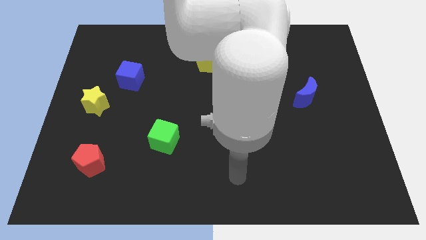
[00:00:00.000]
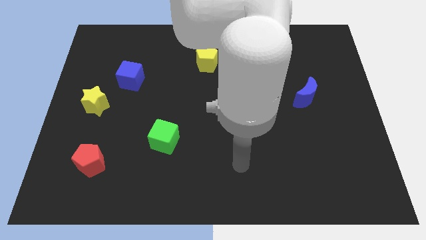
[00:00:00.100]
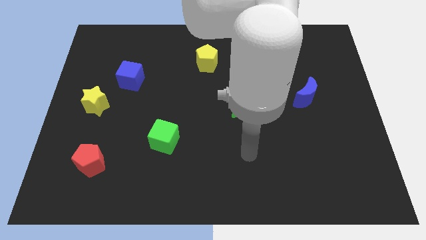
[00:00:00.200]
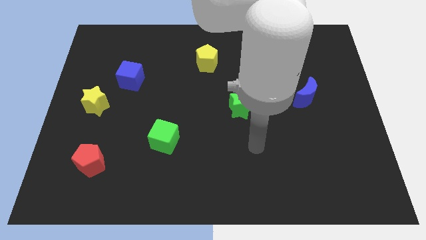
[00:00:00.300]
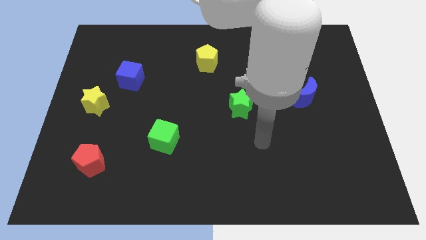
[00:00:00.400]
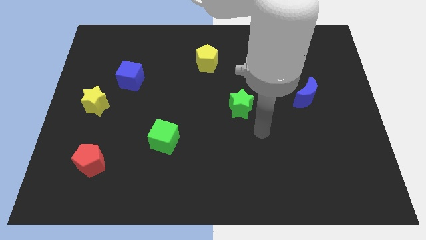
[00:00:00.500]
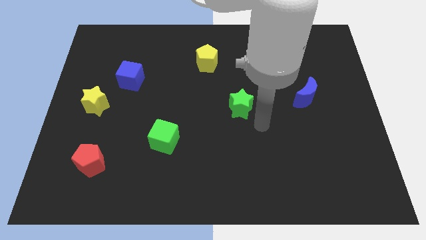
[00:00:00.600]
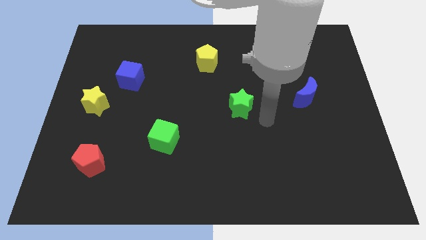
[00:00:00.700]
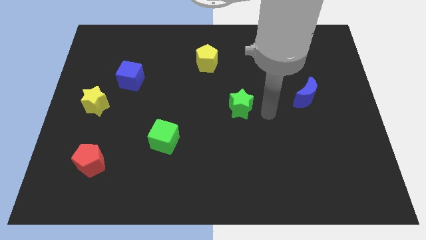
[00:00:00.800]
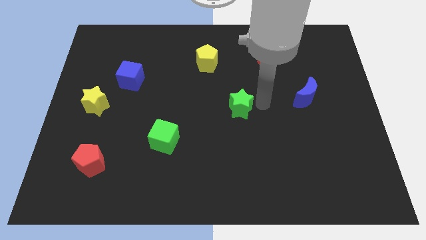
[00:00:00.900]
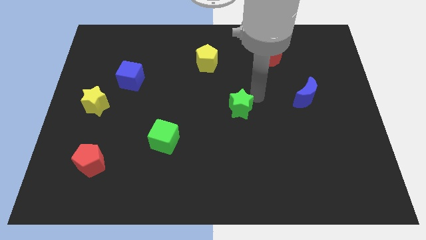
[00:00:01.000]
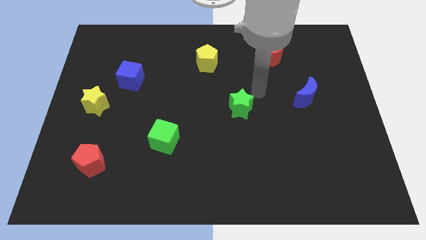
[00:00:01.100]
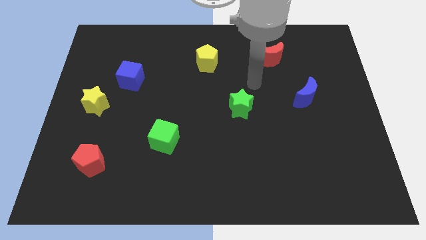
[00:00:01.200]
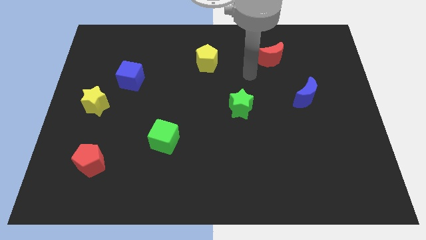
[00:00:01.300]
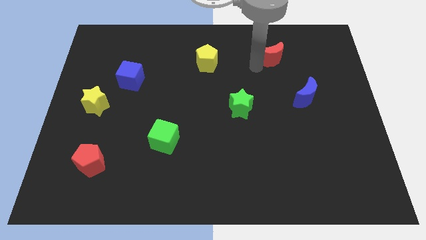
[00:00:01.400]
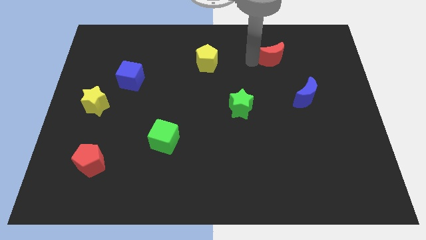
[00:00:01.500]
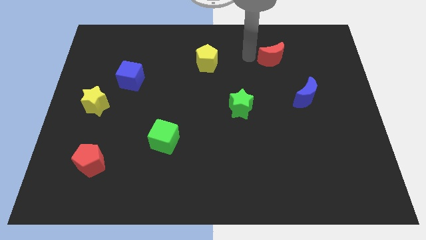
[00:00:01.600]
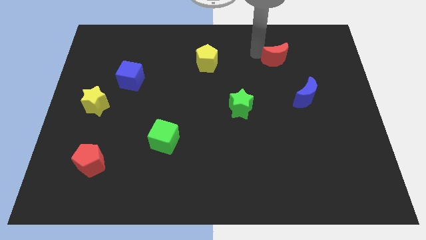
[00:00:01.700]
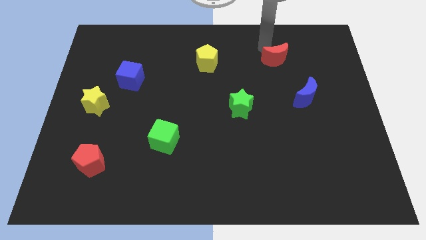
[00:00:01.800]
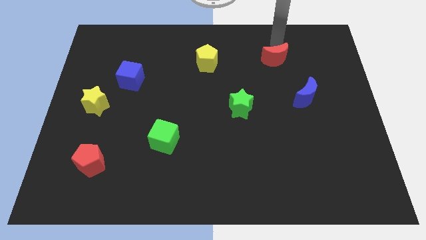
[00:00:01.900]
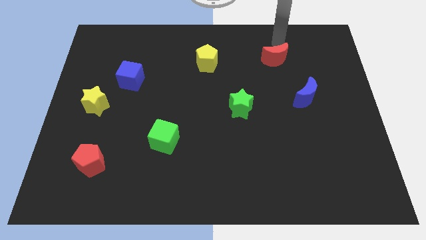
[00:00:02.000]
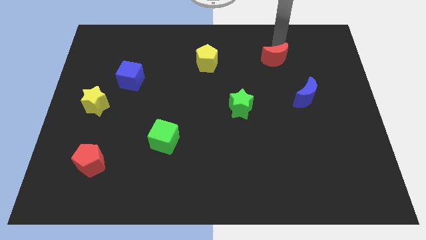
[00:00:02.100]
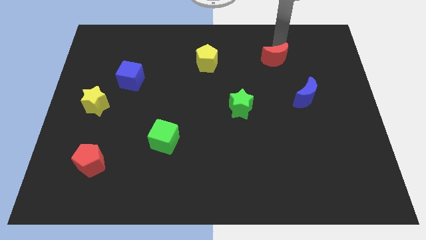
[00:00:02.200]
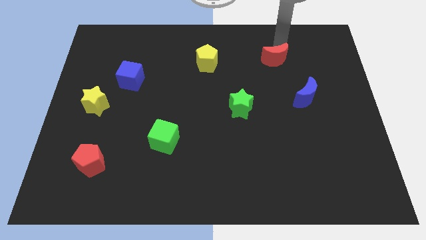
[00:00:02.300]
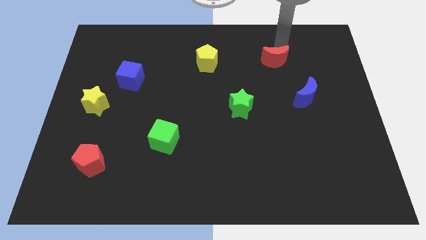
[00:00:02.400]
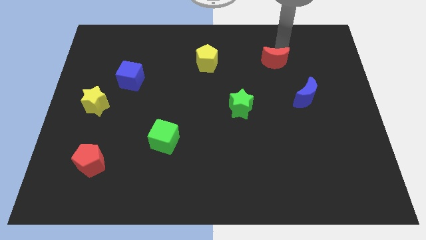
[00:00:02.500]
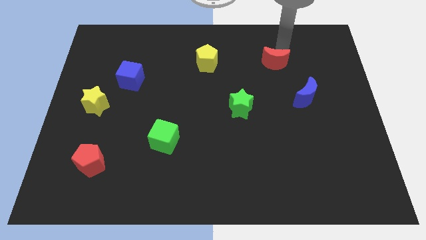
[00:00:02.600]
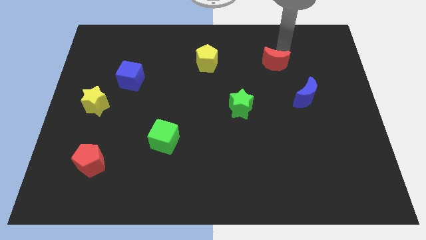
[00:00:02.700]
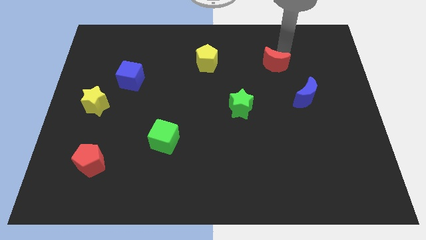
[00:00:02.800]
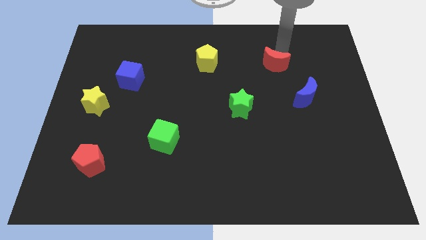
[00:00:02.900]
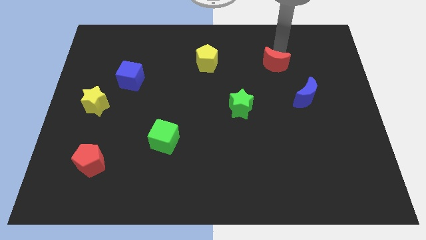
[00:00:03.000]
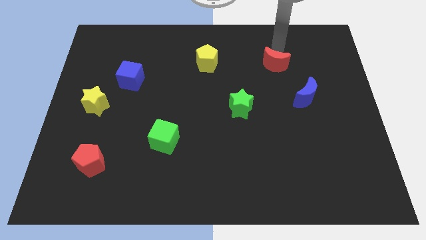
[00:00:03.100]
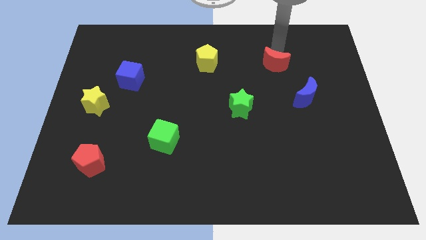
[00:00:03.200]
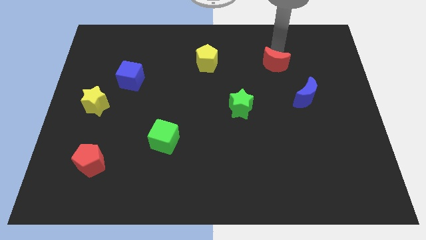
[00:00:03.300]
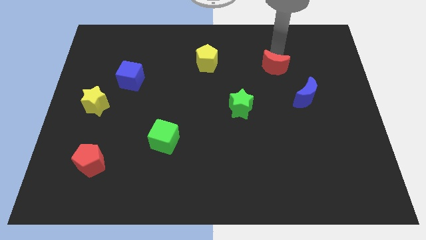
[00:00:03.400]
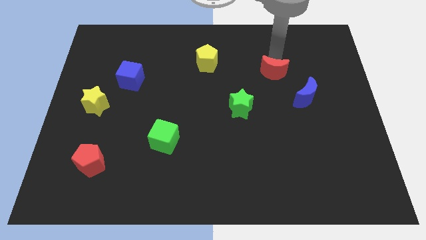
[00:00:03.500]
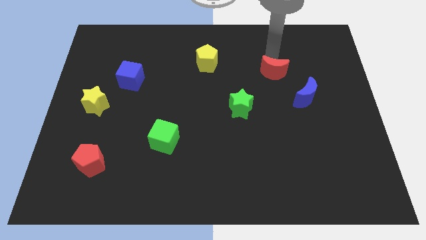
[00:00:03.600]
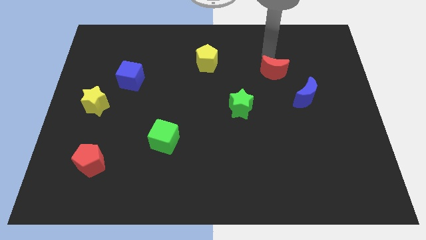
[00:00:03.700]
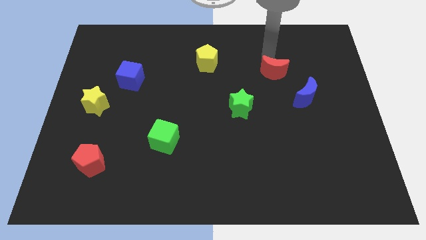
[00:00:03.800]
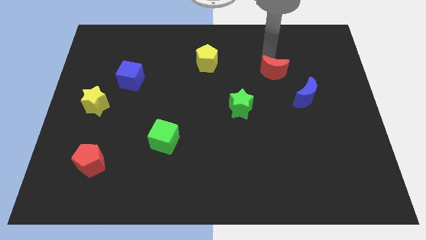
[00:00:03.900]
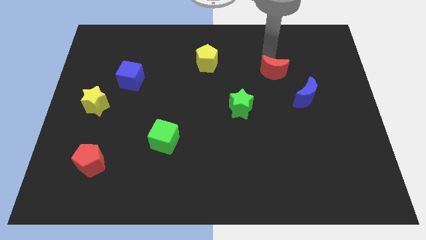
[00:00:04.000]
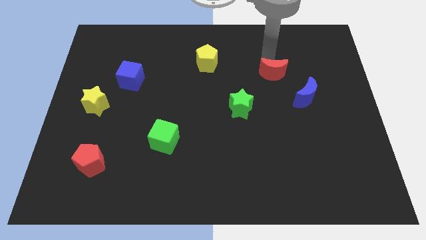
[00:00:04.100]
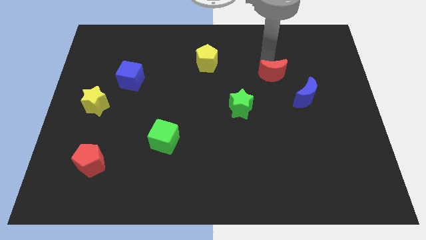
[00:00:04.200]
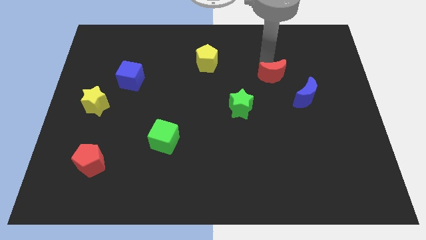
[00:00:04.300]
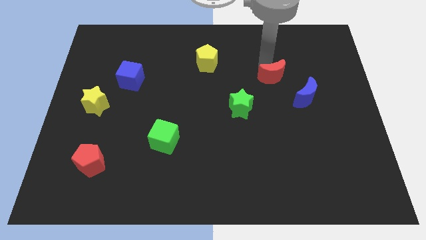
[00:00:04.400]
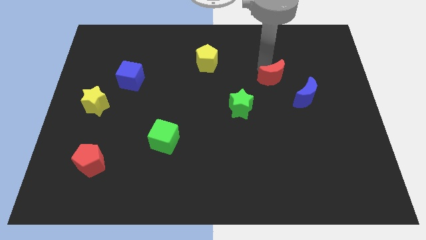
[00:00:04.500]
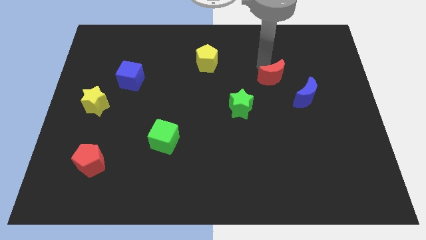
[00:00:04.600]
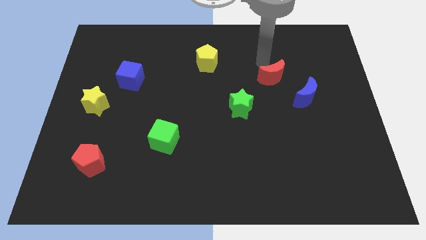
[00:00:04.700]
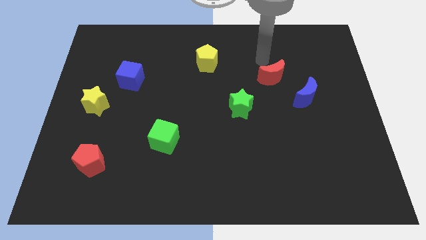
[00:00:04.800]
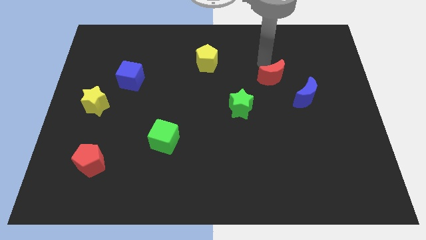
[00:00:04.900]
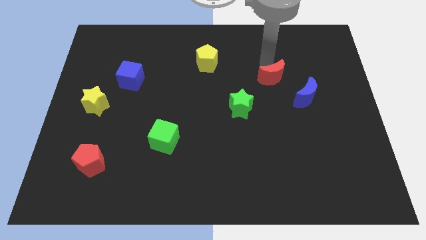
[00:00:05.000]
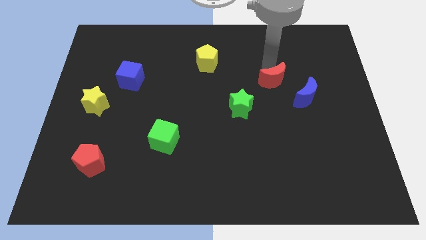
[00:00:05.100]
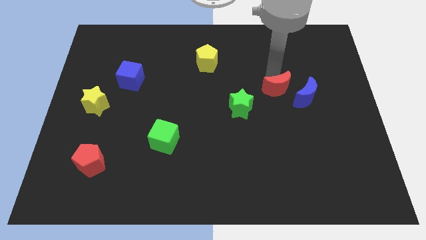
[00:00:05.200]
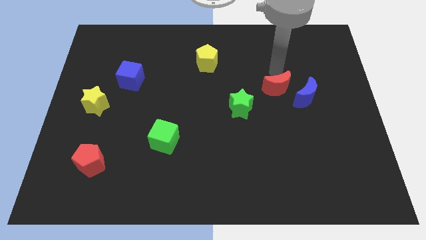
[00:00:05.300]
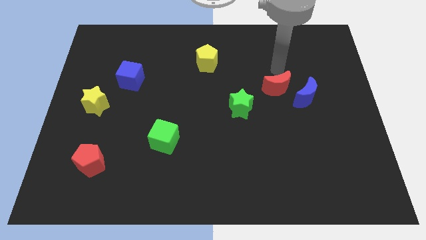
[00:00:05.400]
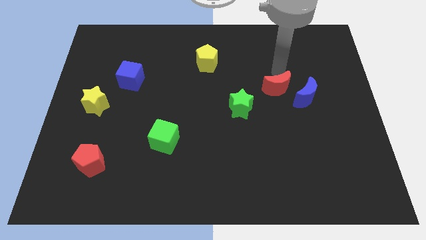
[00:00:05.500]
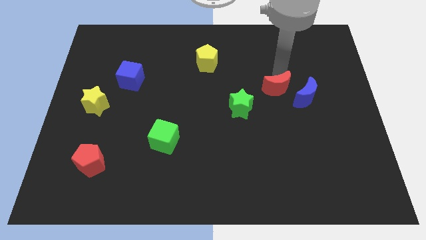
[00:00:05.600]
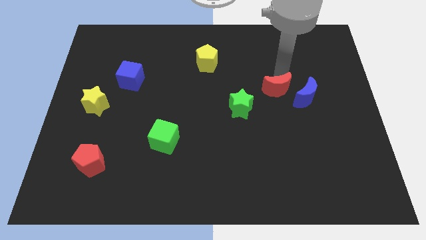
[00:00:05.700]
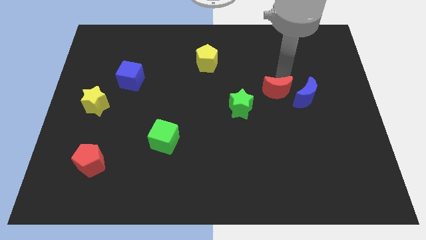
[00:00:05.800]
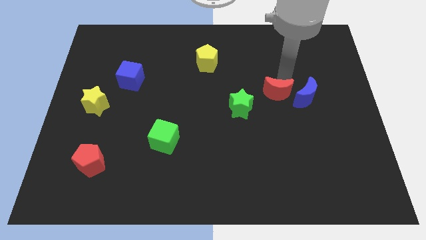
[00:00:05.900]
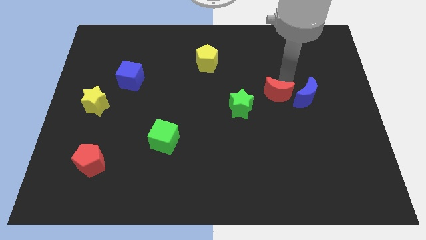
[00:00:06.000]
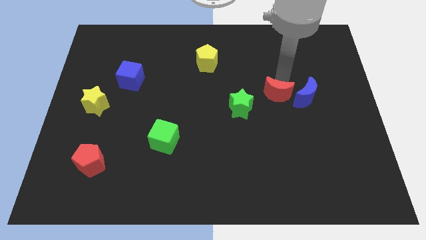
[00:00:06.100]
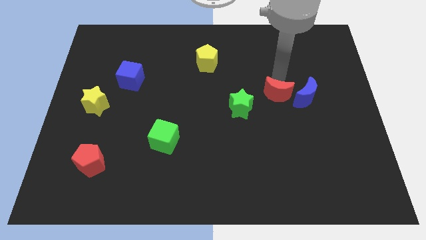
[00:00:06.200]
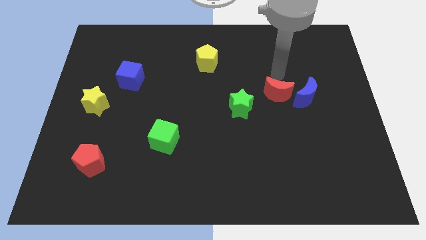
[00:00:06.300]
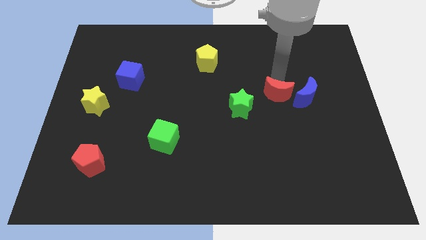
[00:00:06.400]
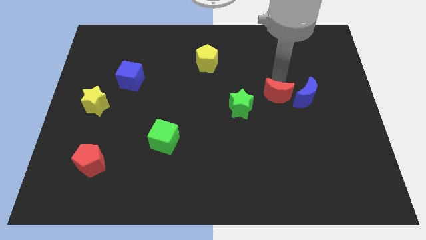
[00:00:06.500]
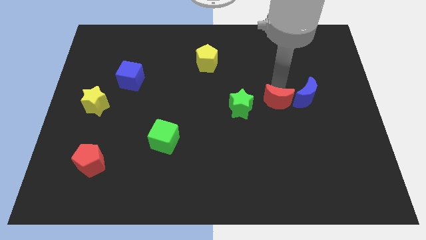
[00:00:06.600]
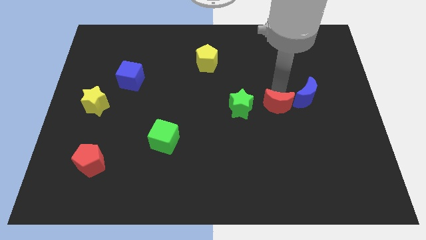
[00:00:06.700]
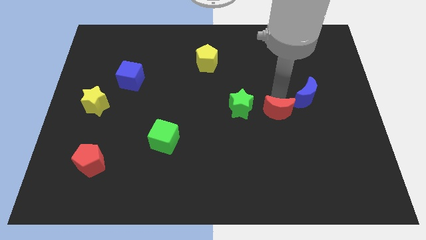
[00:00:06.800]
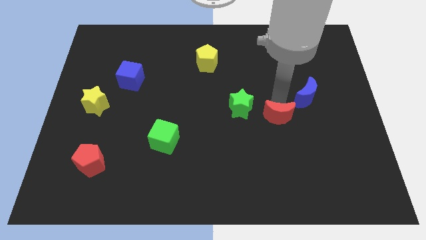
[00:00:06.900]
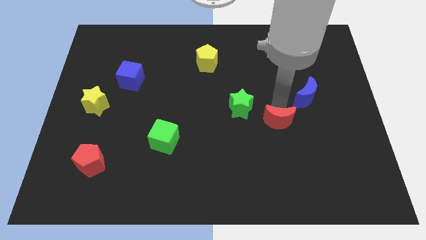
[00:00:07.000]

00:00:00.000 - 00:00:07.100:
move the red moon down

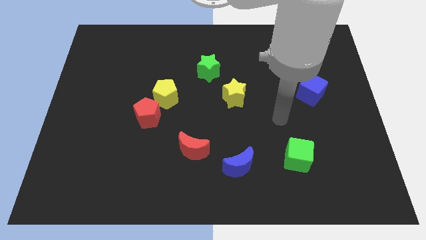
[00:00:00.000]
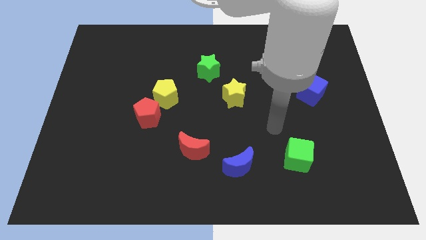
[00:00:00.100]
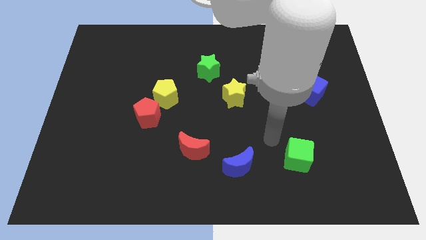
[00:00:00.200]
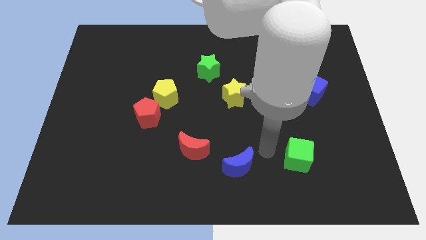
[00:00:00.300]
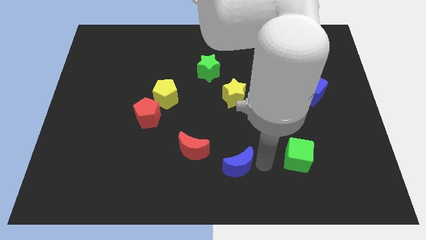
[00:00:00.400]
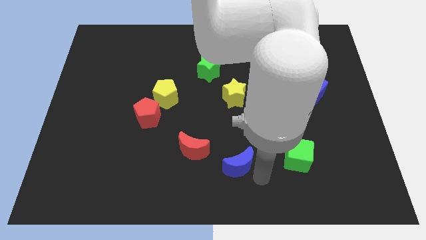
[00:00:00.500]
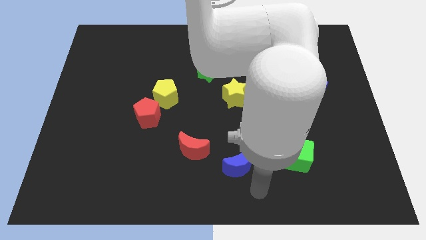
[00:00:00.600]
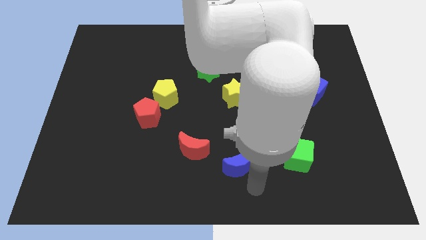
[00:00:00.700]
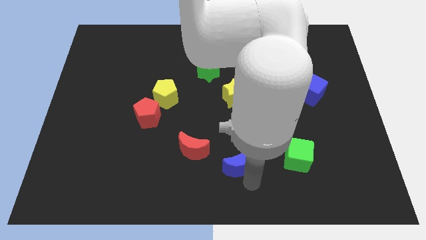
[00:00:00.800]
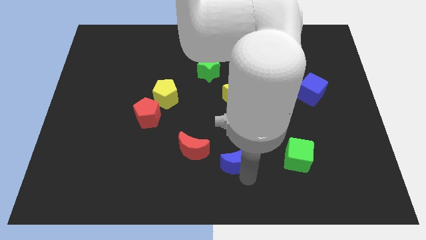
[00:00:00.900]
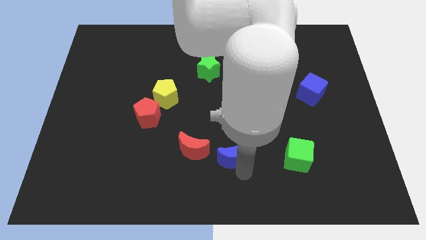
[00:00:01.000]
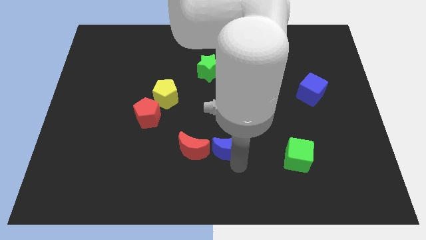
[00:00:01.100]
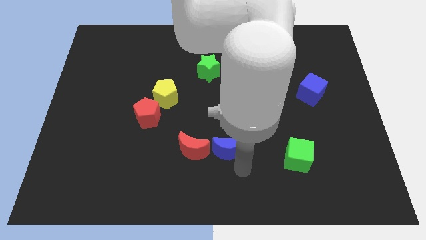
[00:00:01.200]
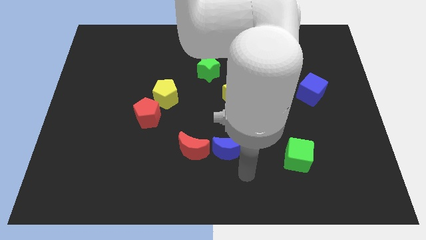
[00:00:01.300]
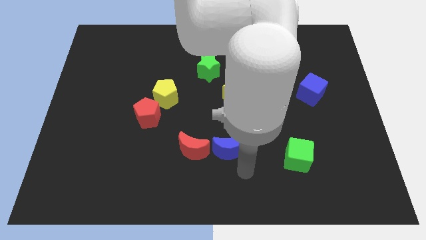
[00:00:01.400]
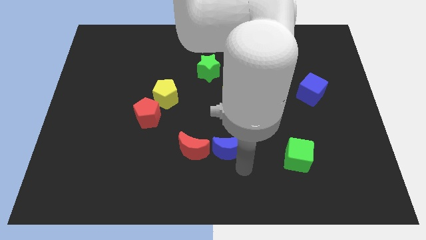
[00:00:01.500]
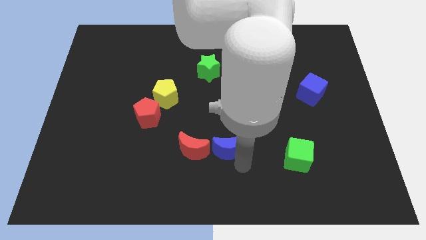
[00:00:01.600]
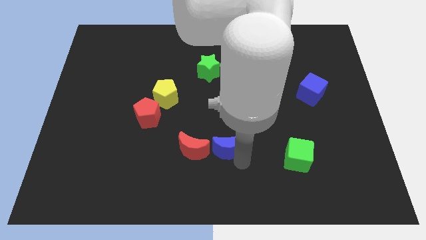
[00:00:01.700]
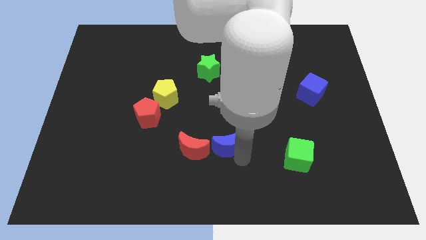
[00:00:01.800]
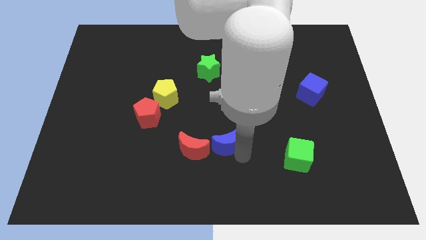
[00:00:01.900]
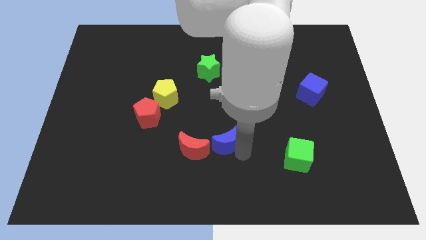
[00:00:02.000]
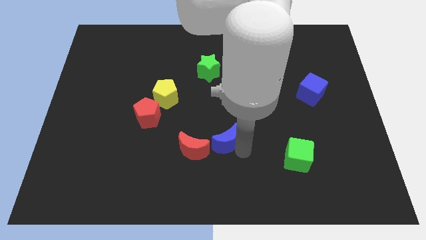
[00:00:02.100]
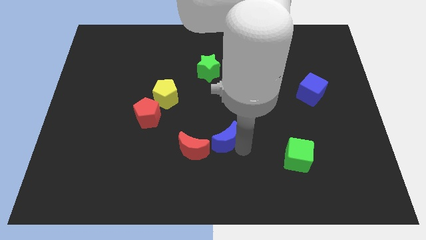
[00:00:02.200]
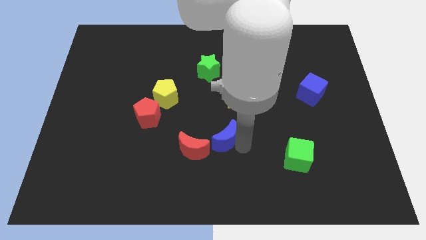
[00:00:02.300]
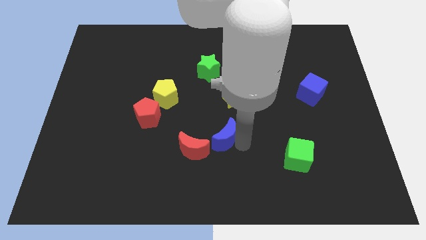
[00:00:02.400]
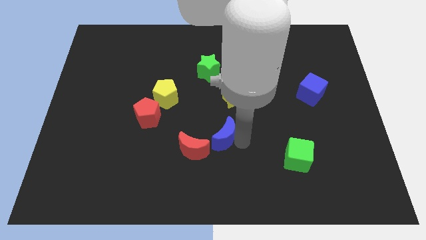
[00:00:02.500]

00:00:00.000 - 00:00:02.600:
slide the blue moon a bit upwards and left diagonally
